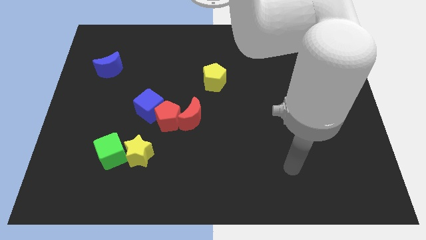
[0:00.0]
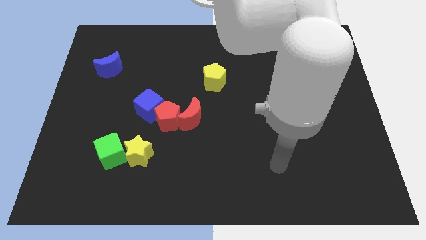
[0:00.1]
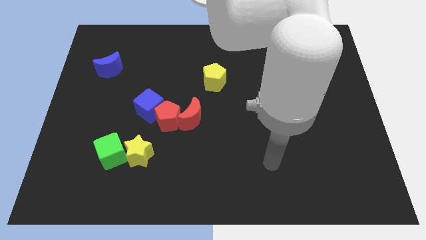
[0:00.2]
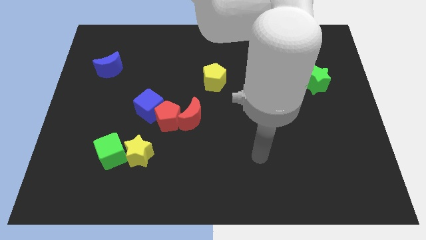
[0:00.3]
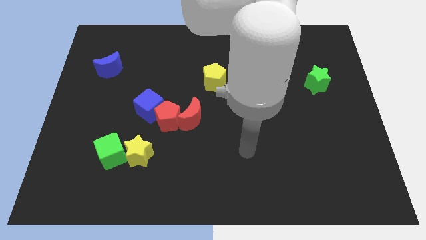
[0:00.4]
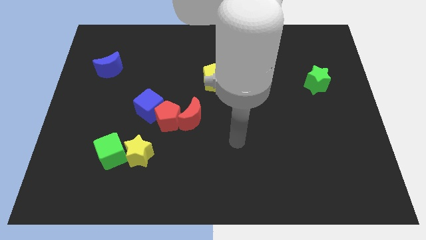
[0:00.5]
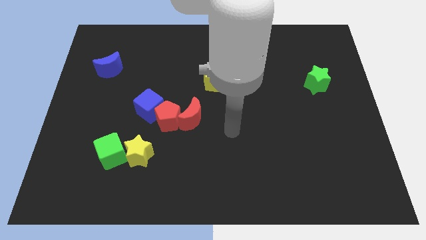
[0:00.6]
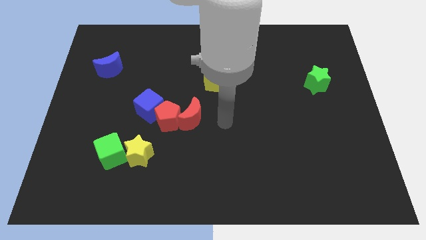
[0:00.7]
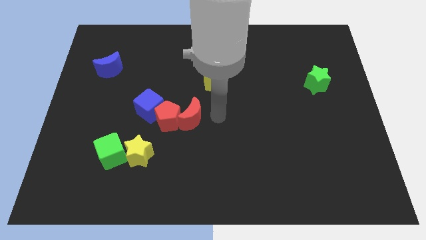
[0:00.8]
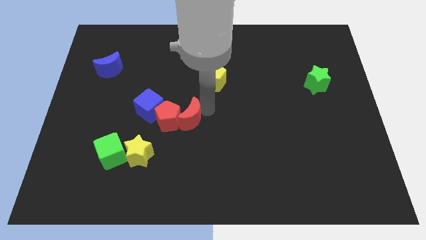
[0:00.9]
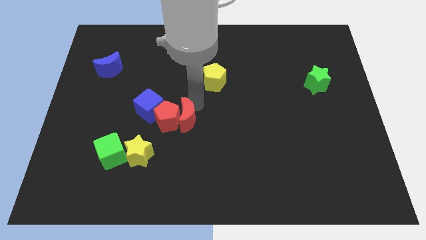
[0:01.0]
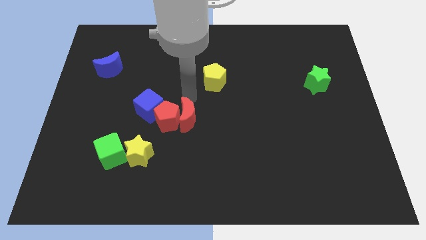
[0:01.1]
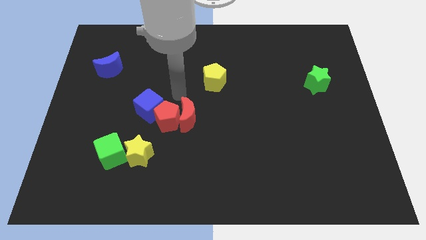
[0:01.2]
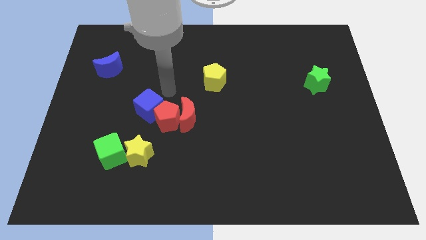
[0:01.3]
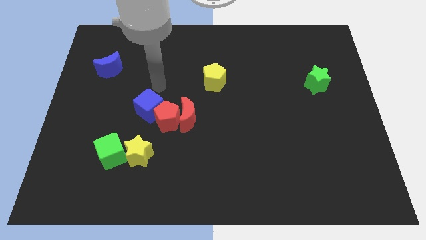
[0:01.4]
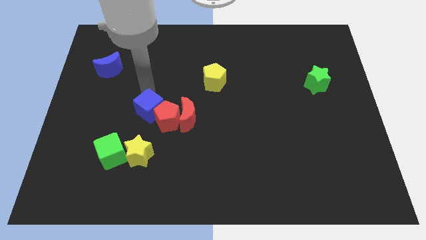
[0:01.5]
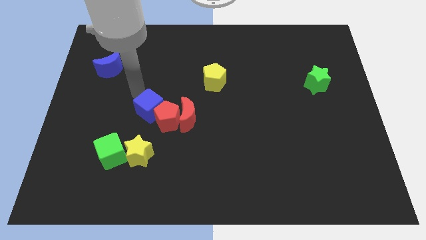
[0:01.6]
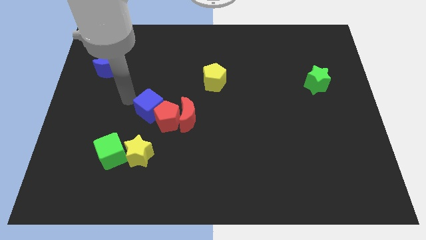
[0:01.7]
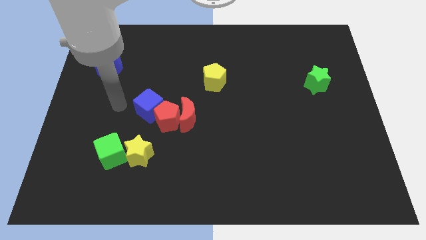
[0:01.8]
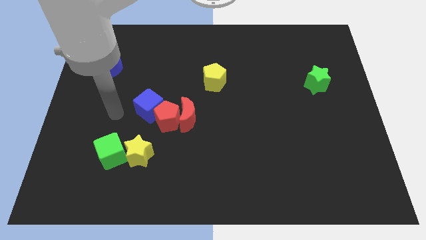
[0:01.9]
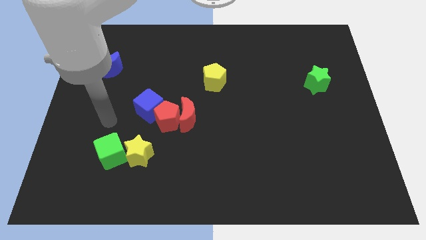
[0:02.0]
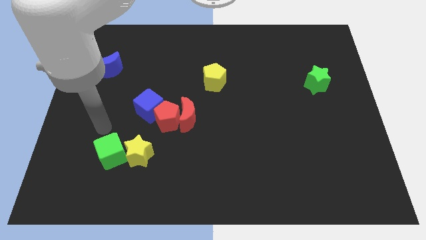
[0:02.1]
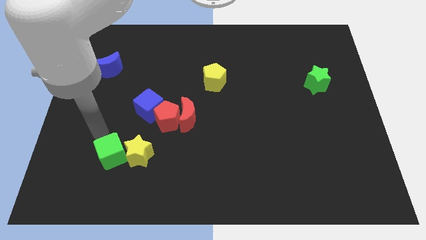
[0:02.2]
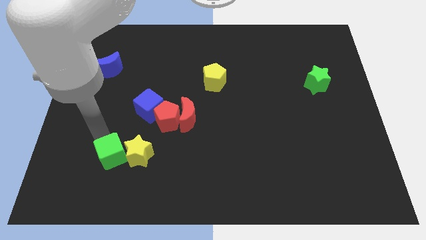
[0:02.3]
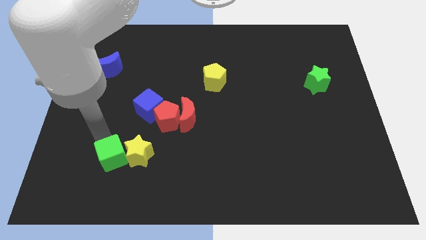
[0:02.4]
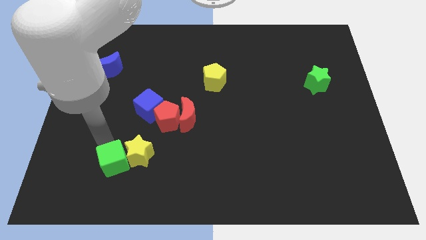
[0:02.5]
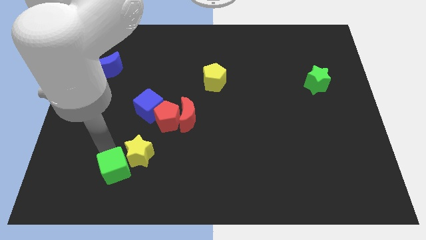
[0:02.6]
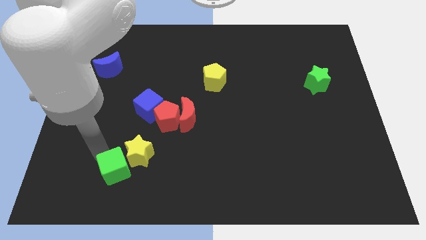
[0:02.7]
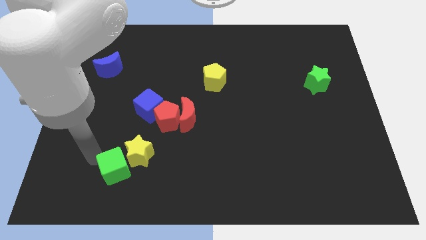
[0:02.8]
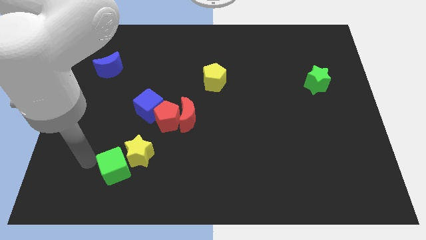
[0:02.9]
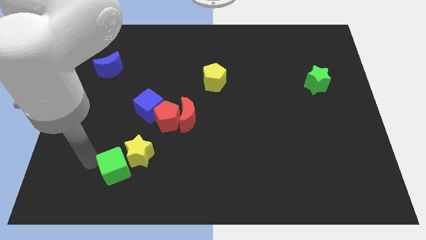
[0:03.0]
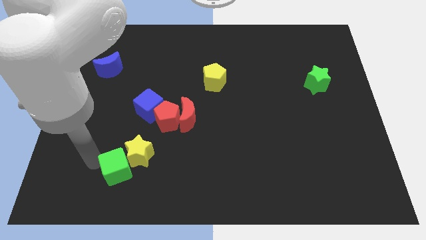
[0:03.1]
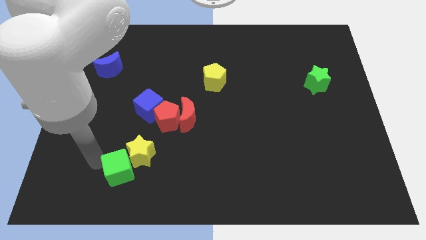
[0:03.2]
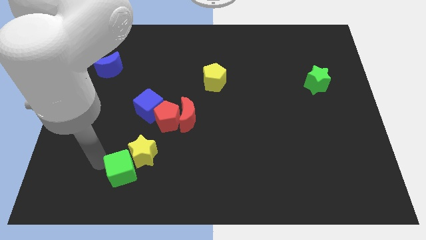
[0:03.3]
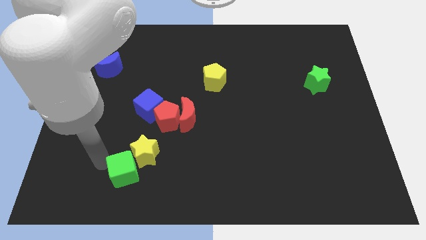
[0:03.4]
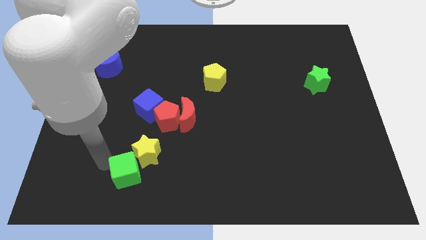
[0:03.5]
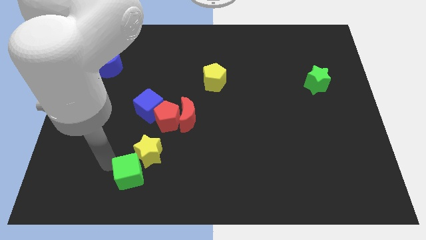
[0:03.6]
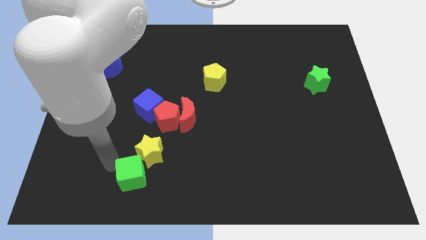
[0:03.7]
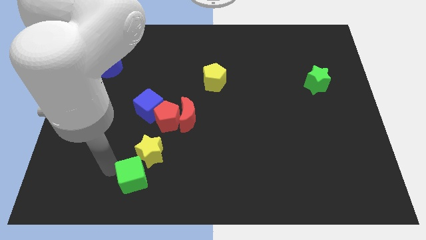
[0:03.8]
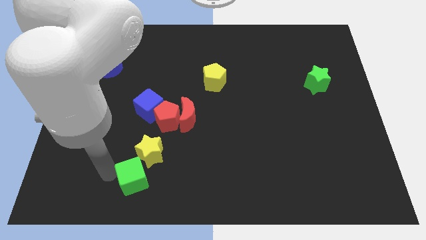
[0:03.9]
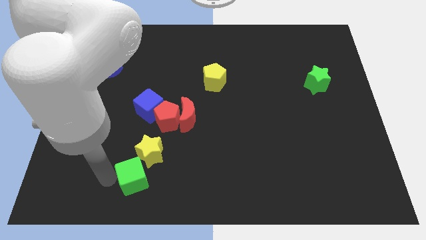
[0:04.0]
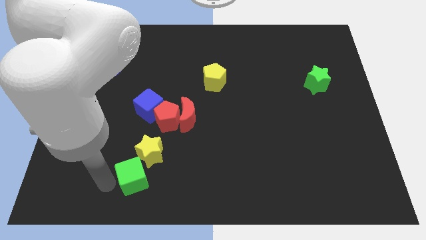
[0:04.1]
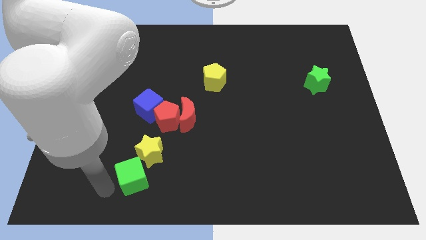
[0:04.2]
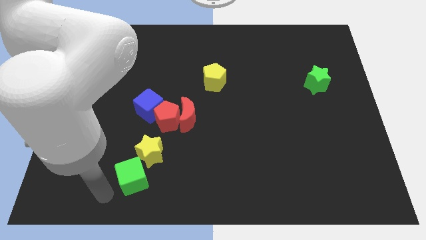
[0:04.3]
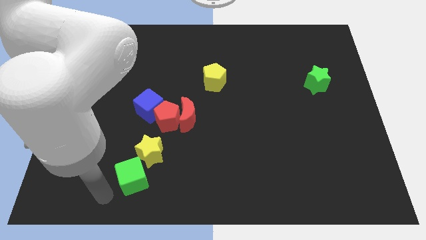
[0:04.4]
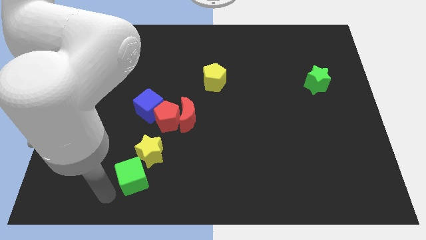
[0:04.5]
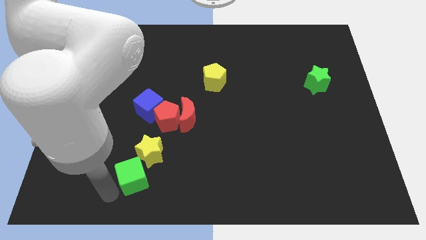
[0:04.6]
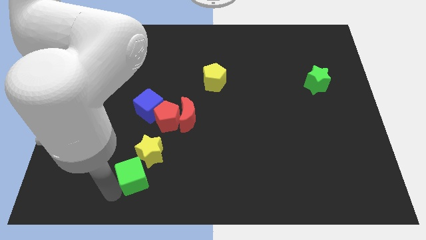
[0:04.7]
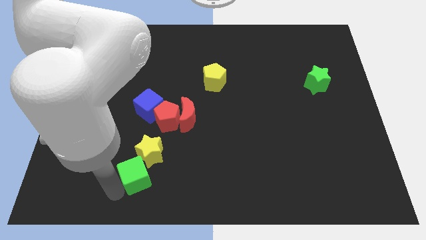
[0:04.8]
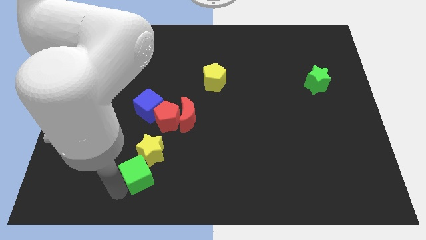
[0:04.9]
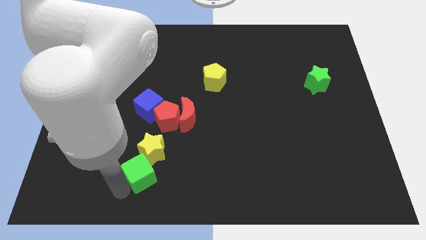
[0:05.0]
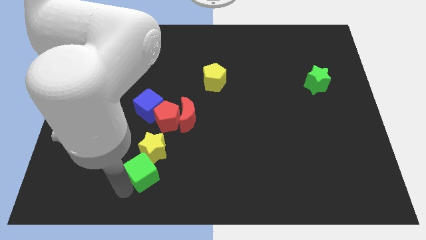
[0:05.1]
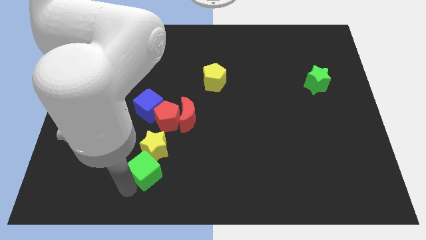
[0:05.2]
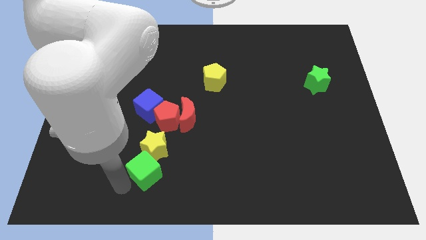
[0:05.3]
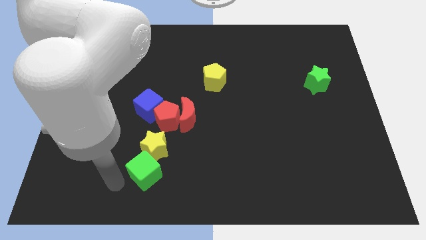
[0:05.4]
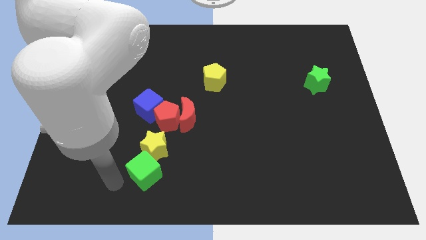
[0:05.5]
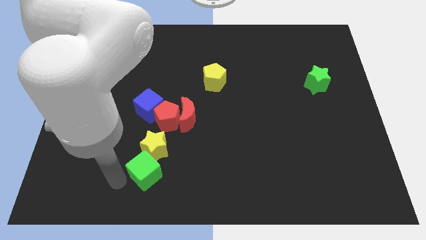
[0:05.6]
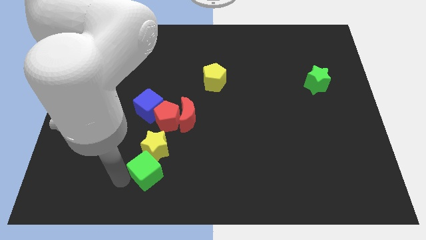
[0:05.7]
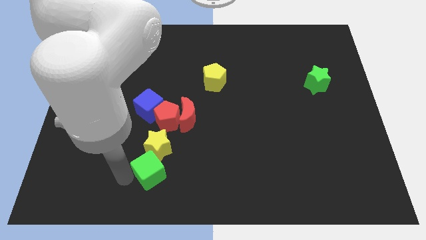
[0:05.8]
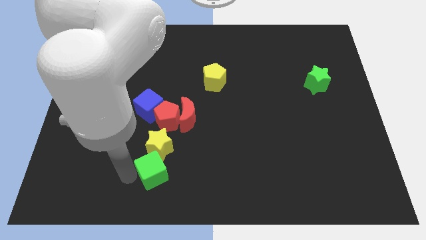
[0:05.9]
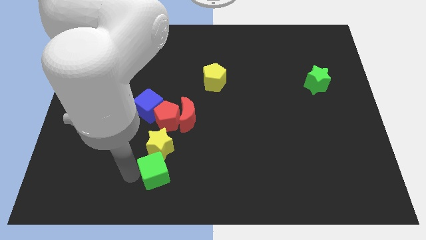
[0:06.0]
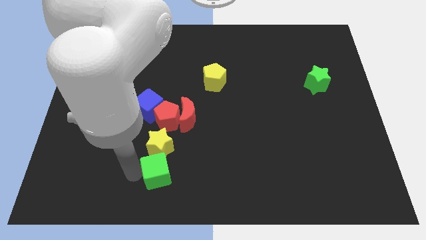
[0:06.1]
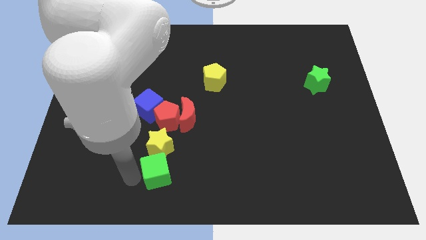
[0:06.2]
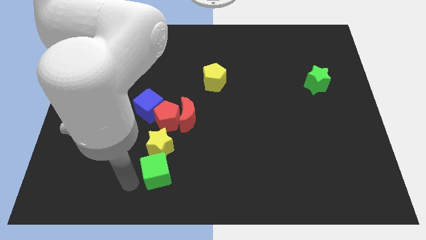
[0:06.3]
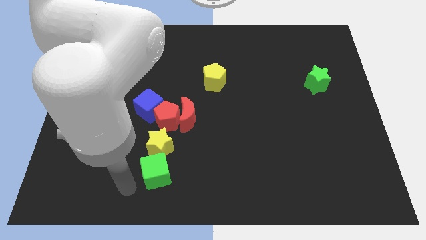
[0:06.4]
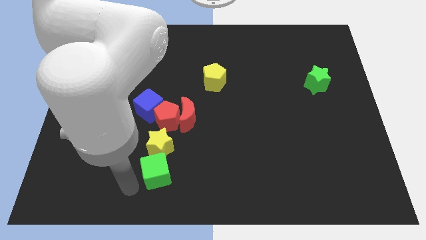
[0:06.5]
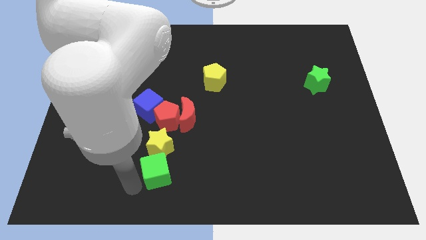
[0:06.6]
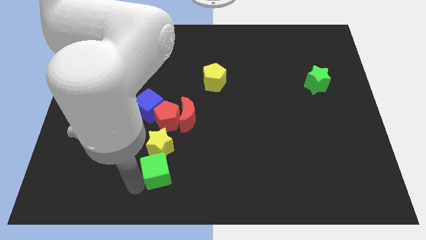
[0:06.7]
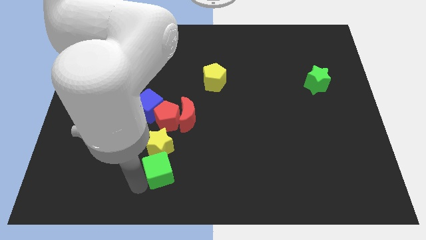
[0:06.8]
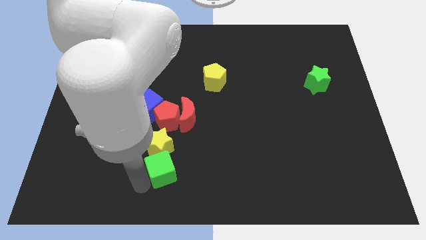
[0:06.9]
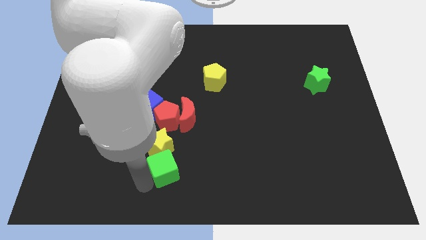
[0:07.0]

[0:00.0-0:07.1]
push the green cube below the red moon
